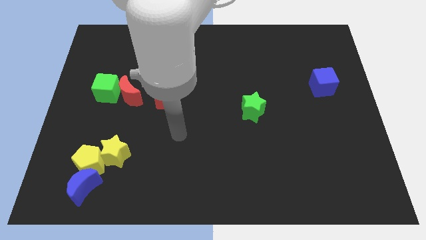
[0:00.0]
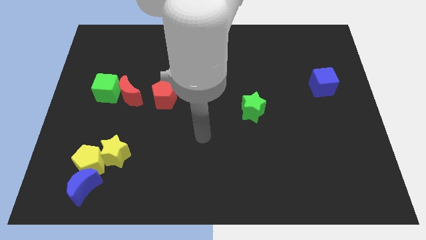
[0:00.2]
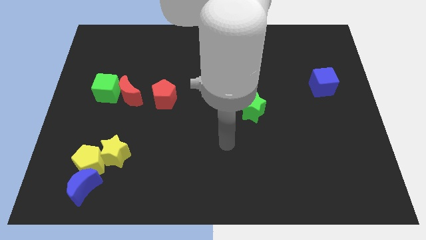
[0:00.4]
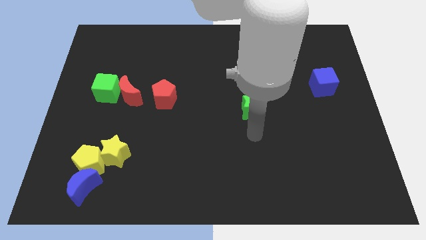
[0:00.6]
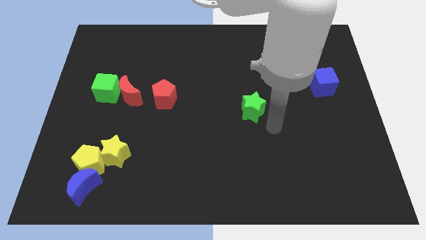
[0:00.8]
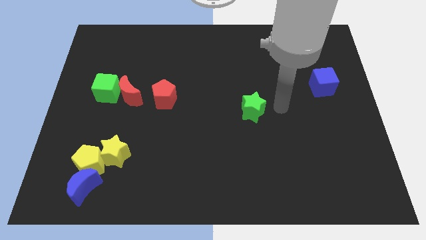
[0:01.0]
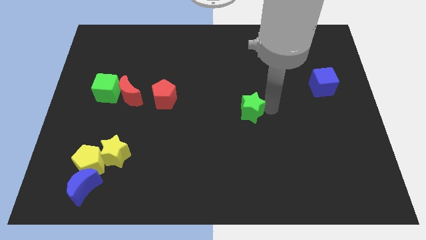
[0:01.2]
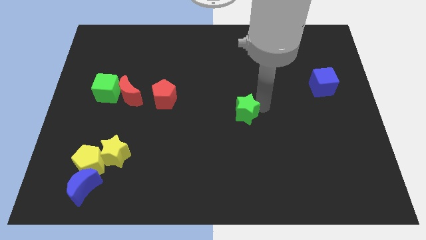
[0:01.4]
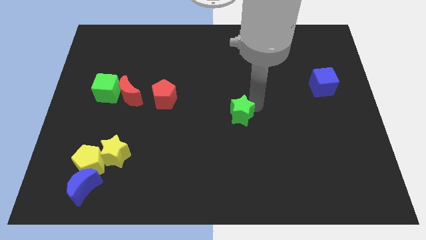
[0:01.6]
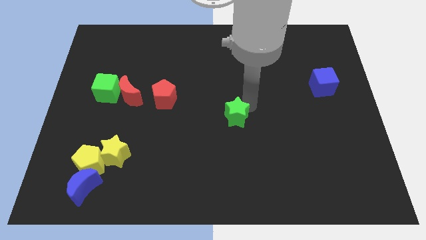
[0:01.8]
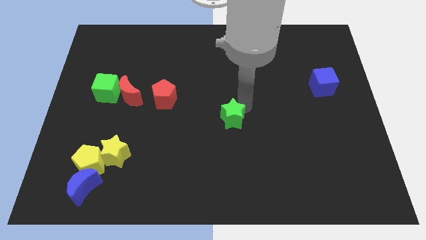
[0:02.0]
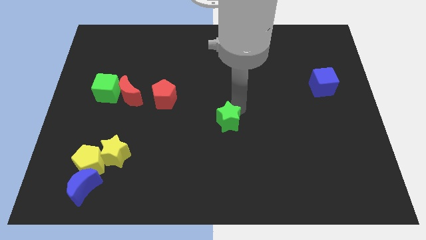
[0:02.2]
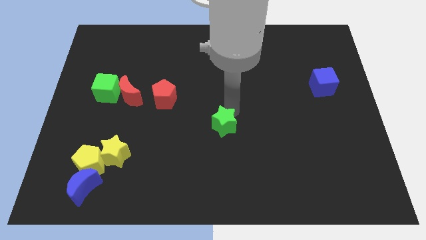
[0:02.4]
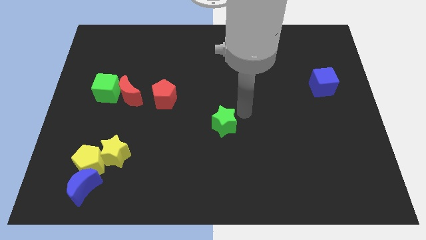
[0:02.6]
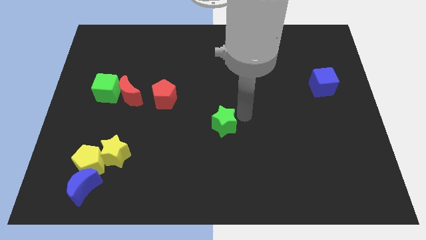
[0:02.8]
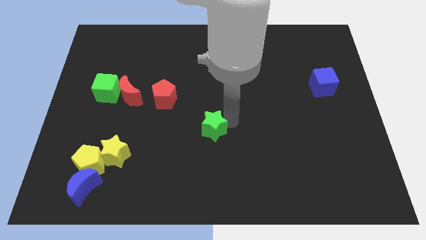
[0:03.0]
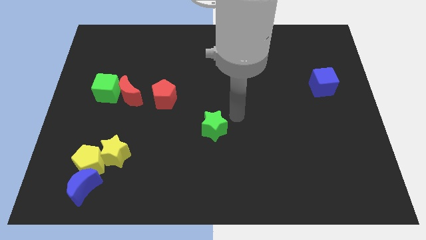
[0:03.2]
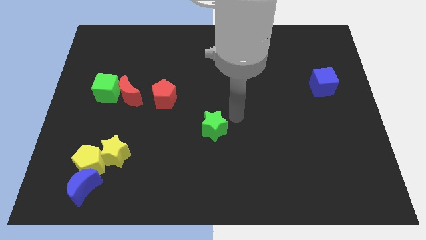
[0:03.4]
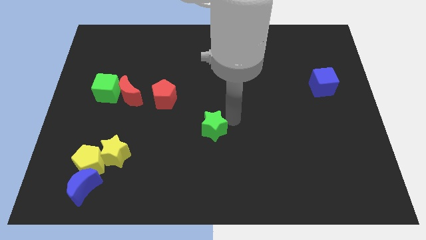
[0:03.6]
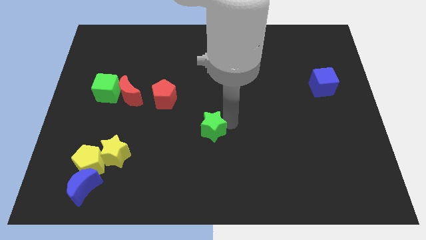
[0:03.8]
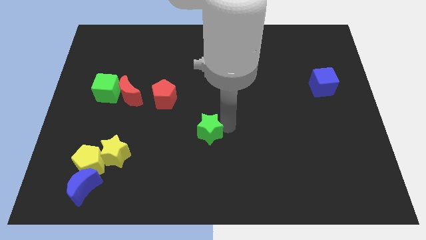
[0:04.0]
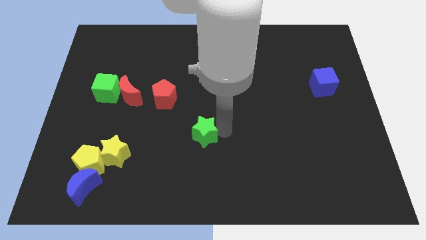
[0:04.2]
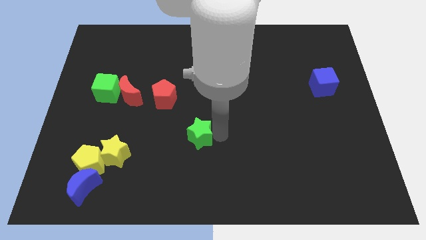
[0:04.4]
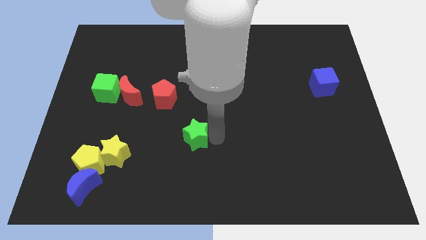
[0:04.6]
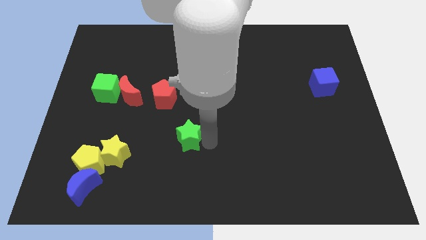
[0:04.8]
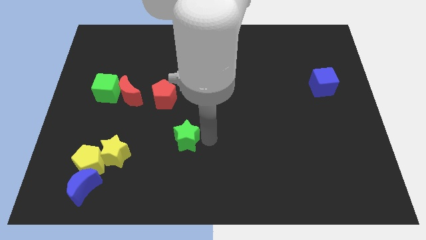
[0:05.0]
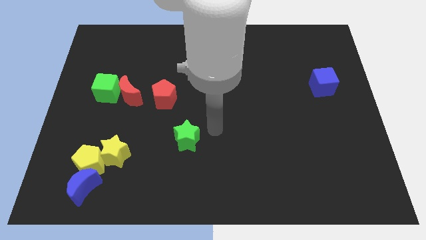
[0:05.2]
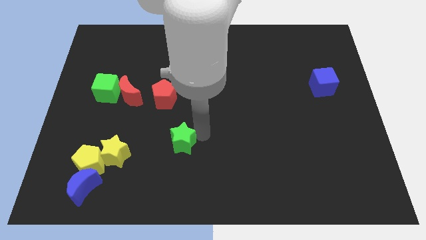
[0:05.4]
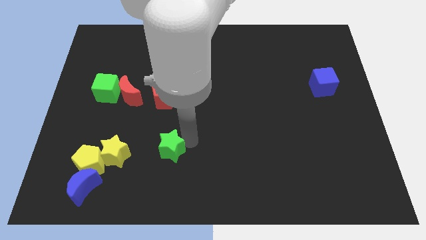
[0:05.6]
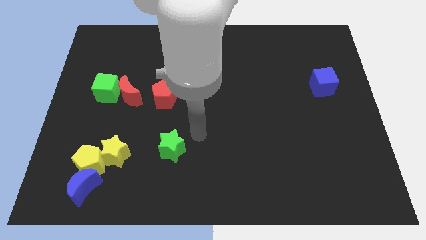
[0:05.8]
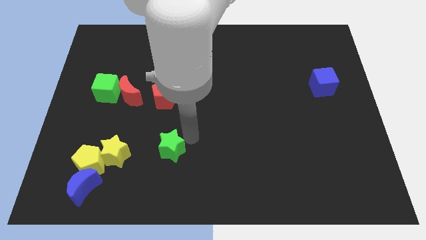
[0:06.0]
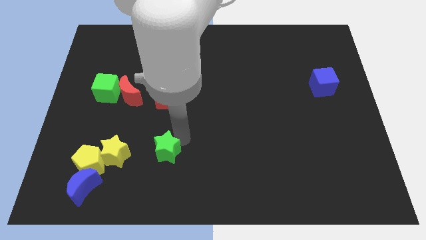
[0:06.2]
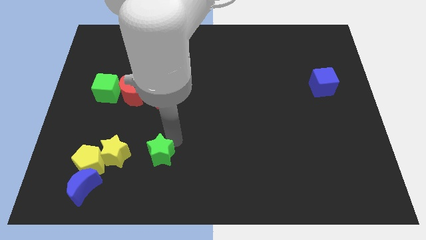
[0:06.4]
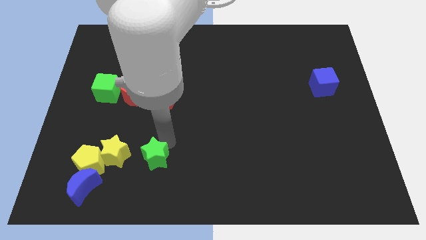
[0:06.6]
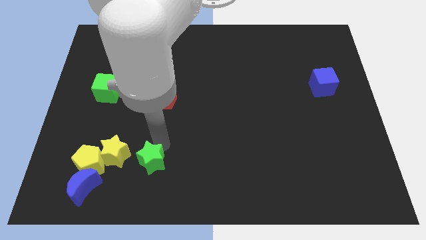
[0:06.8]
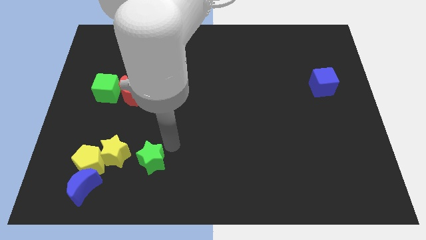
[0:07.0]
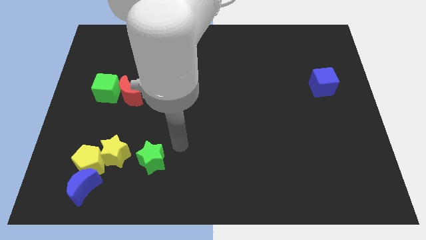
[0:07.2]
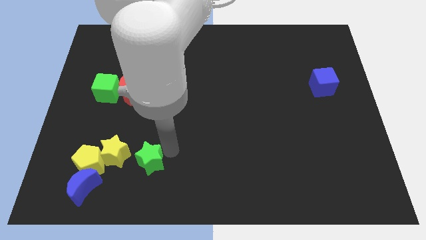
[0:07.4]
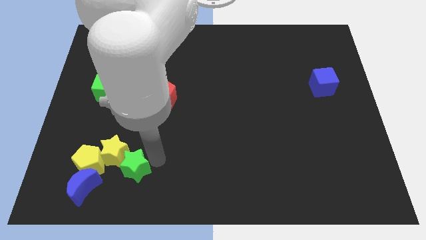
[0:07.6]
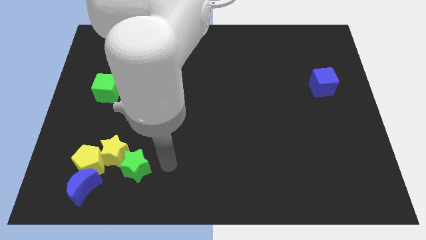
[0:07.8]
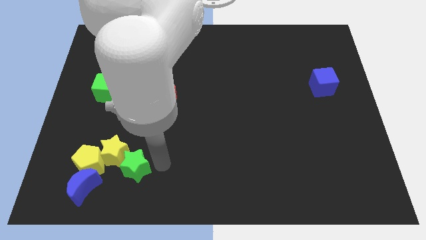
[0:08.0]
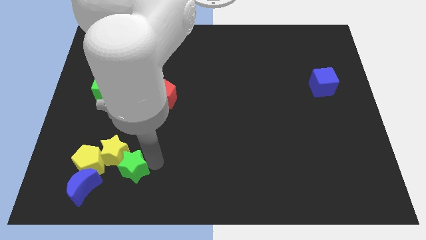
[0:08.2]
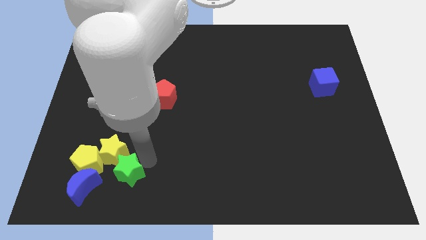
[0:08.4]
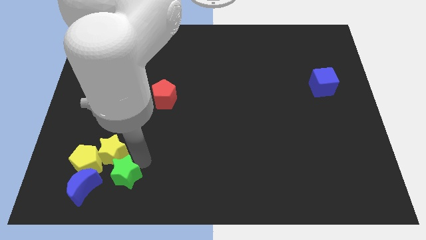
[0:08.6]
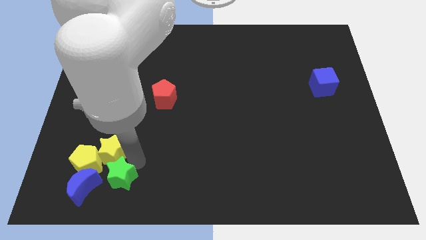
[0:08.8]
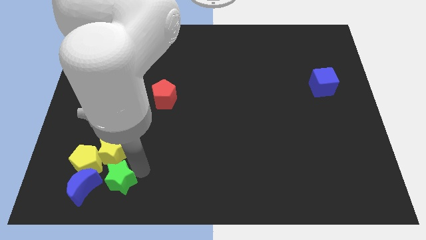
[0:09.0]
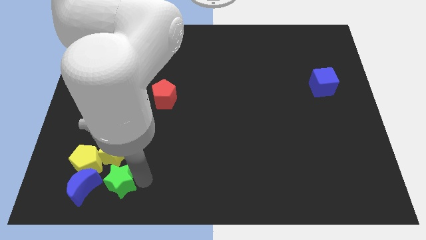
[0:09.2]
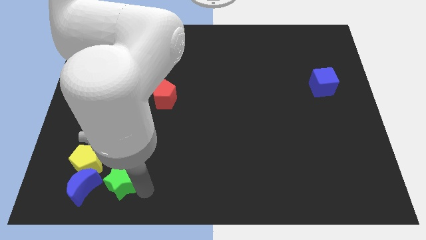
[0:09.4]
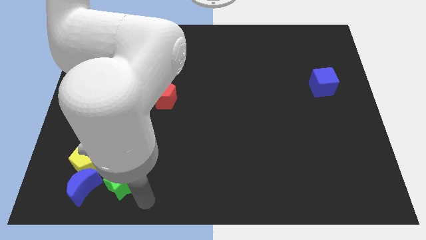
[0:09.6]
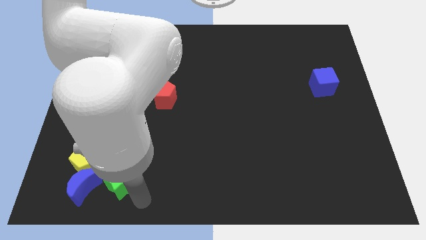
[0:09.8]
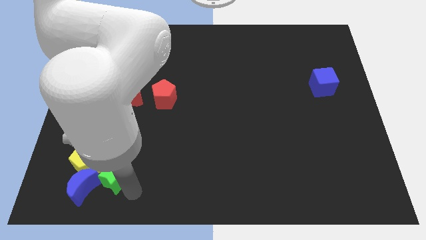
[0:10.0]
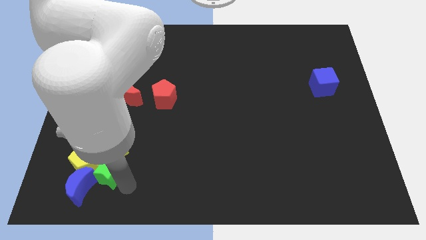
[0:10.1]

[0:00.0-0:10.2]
move the green star close to the yellow pentagon

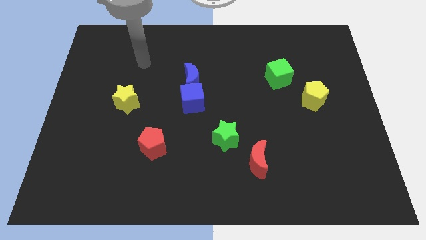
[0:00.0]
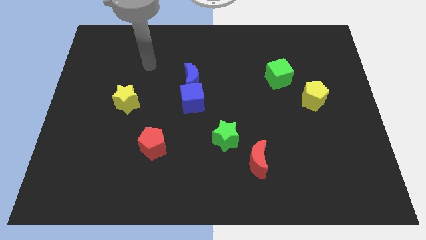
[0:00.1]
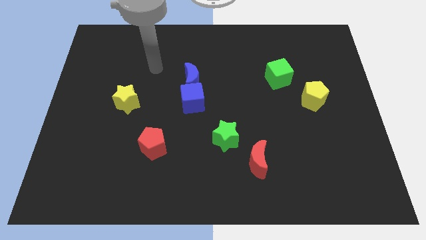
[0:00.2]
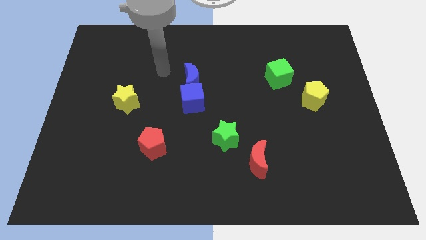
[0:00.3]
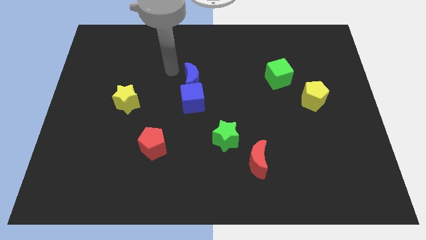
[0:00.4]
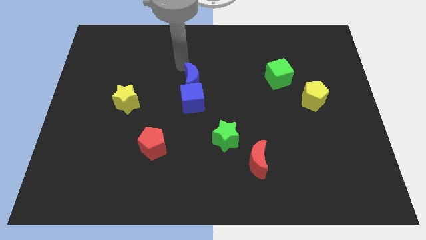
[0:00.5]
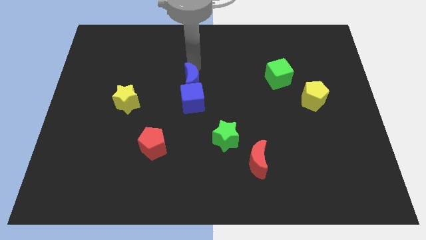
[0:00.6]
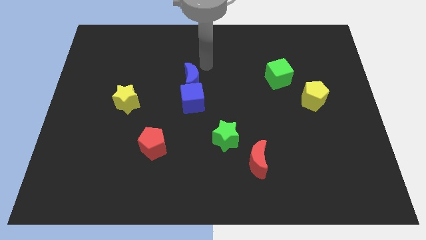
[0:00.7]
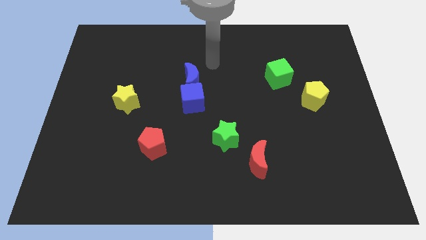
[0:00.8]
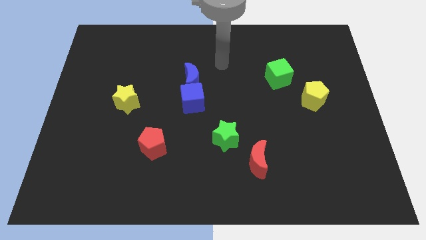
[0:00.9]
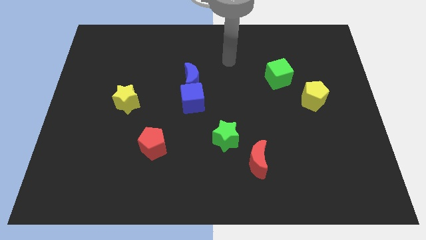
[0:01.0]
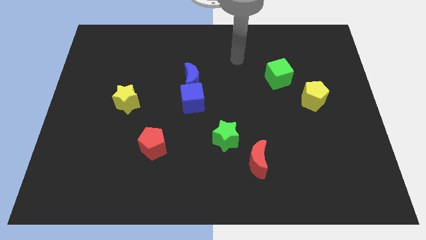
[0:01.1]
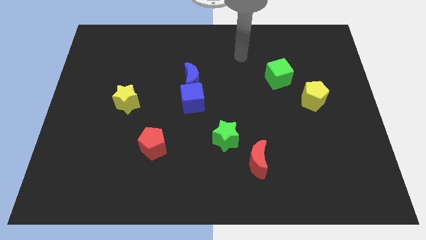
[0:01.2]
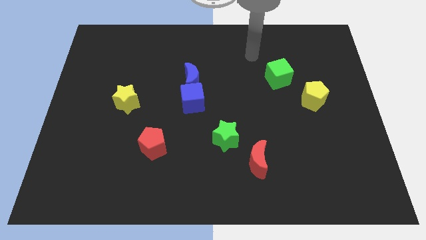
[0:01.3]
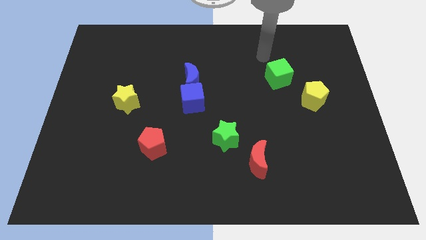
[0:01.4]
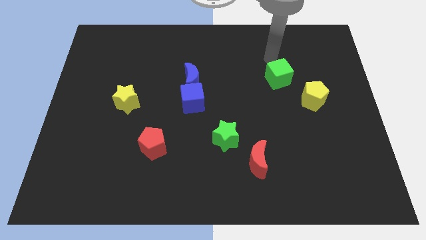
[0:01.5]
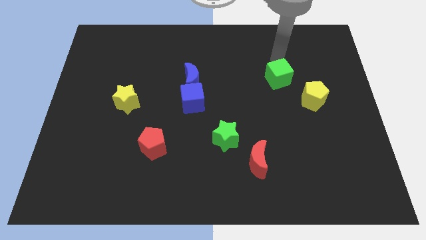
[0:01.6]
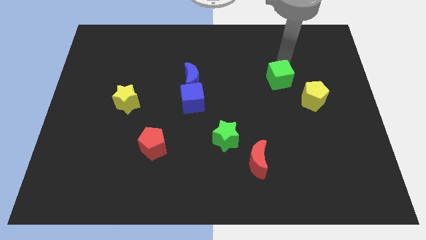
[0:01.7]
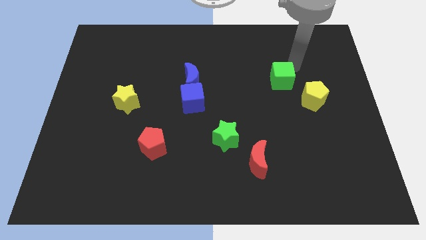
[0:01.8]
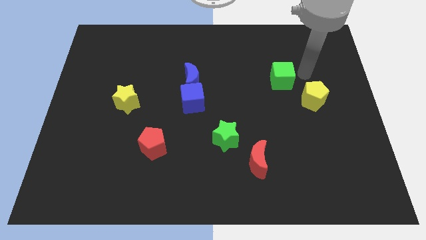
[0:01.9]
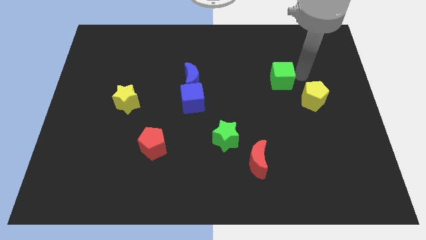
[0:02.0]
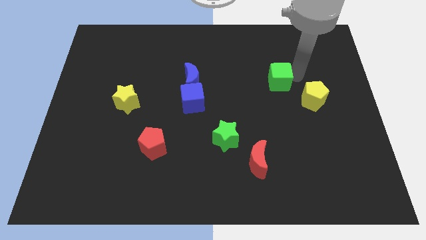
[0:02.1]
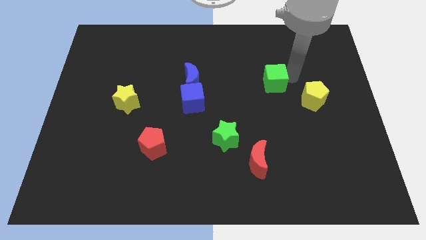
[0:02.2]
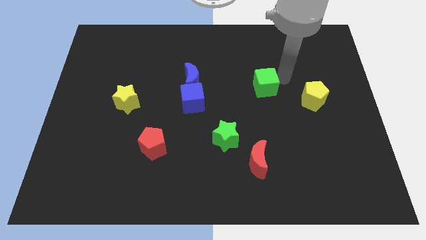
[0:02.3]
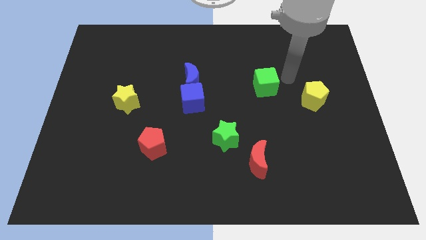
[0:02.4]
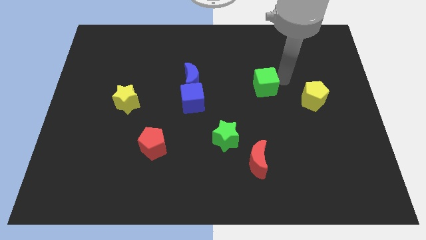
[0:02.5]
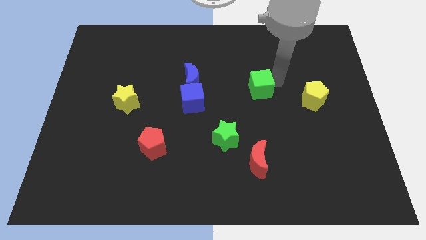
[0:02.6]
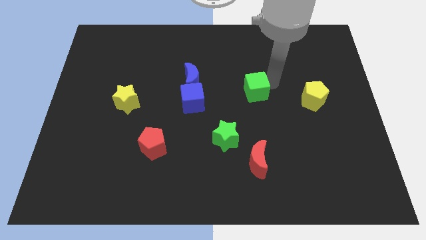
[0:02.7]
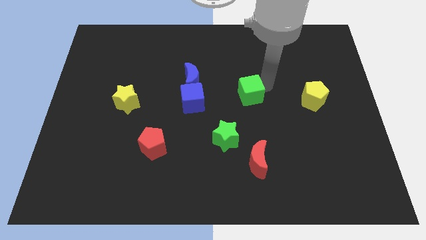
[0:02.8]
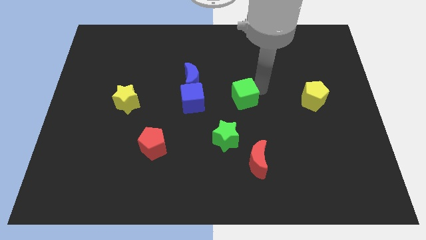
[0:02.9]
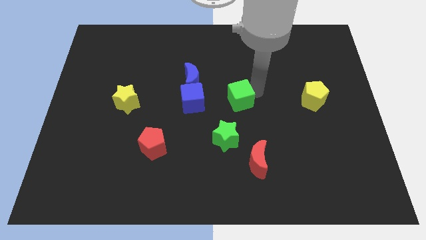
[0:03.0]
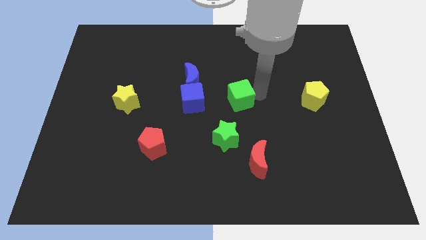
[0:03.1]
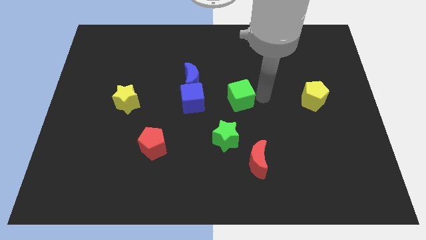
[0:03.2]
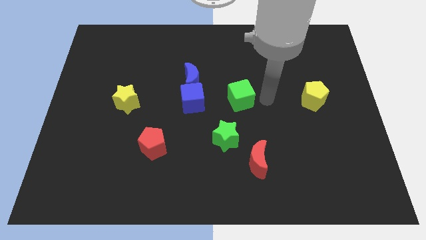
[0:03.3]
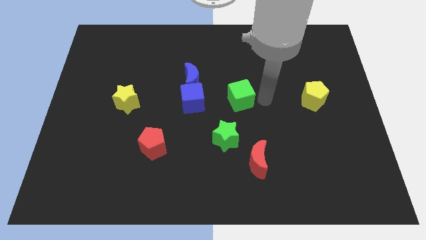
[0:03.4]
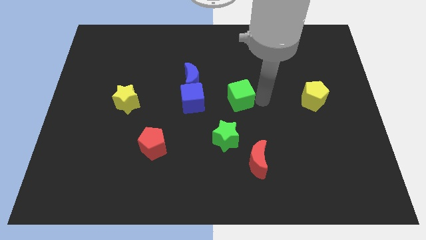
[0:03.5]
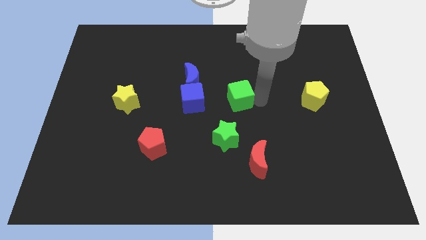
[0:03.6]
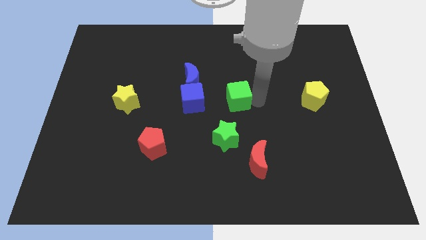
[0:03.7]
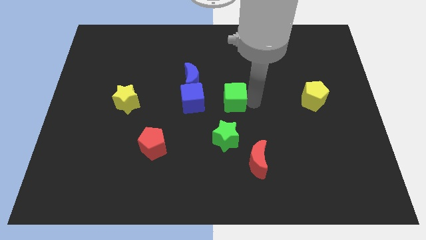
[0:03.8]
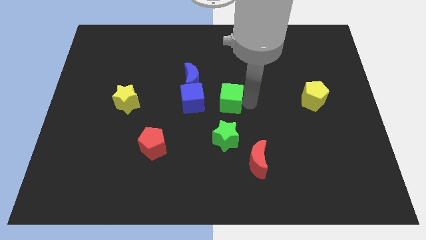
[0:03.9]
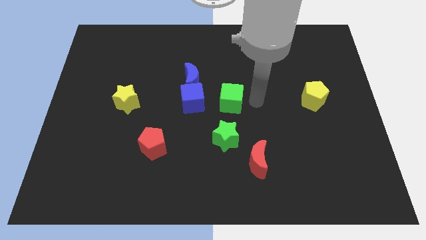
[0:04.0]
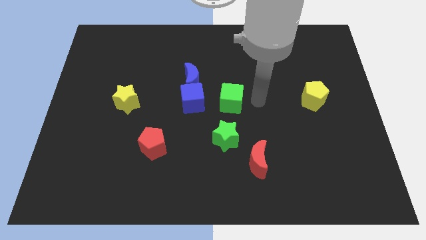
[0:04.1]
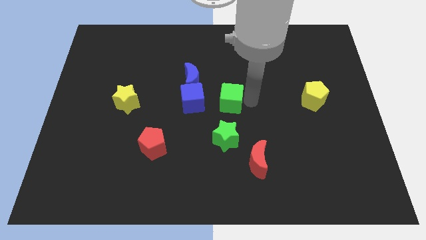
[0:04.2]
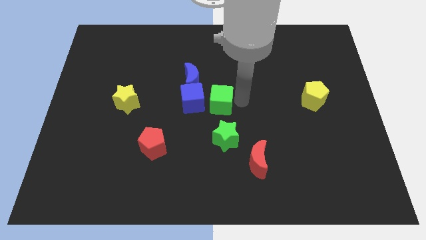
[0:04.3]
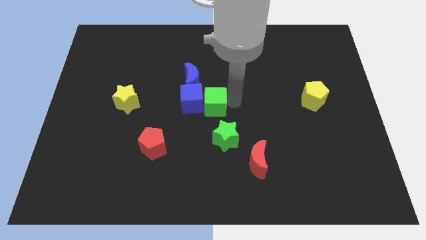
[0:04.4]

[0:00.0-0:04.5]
slide the green cube close to the blue cube
